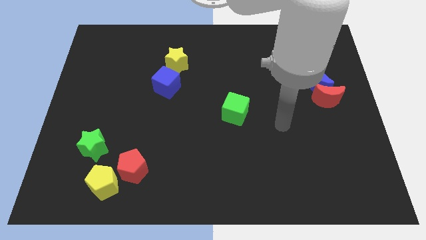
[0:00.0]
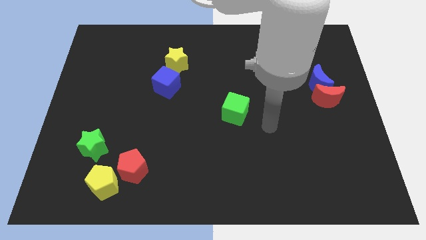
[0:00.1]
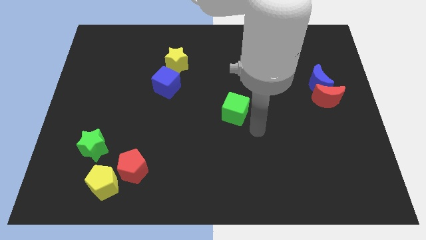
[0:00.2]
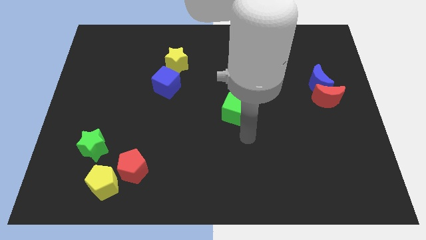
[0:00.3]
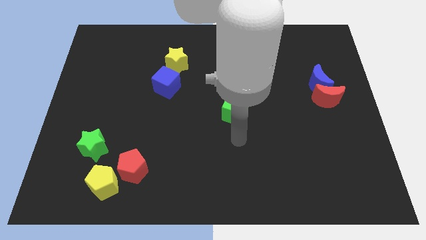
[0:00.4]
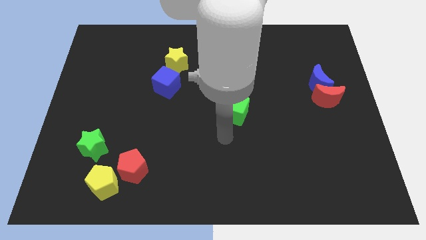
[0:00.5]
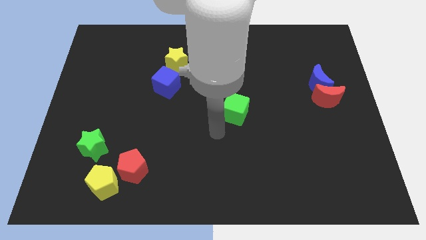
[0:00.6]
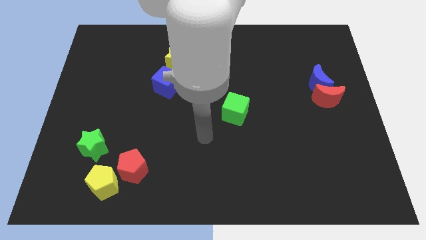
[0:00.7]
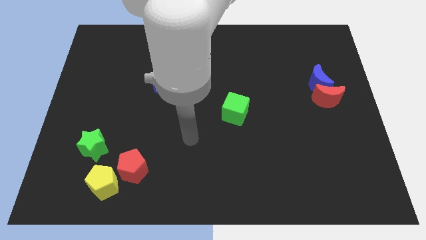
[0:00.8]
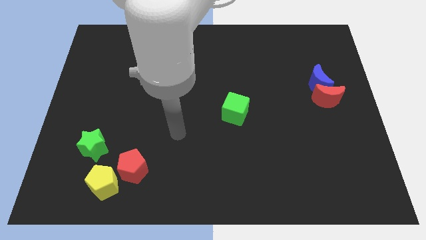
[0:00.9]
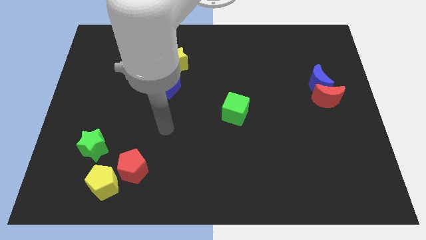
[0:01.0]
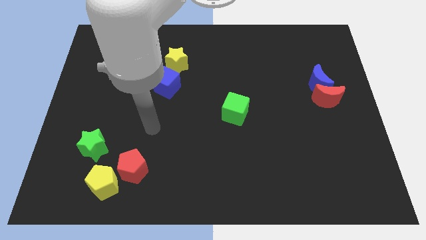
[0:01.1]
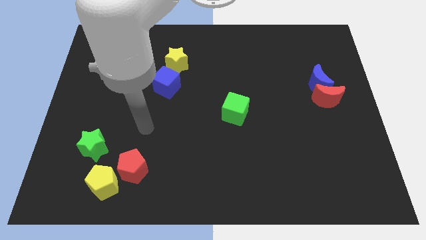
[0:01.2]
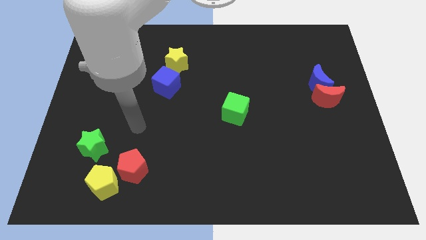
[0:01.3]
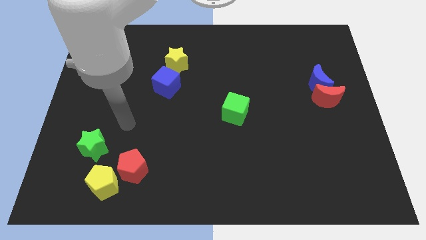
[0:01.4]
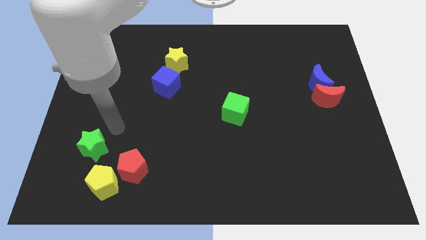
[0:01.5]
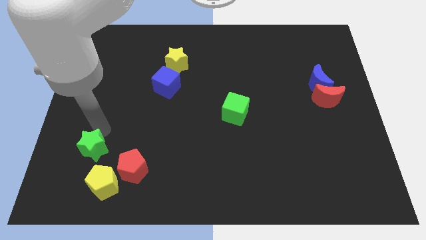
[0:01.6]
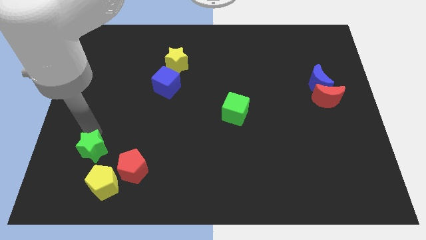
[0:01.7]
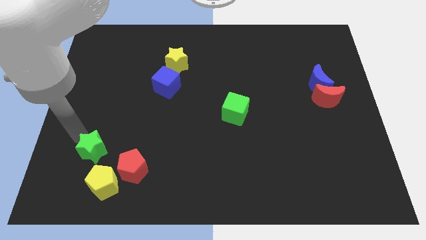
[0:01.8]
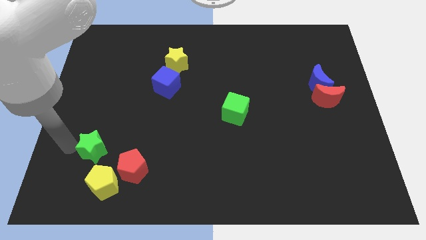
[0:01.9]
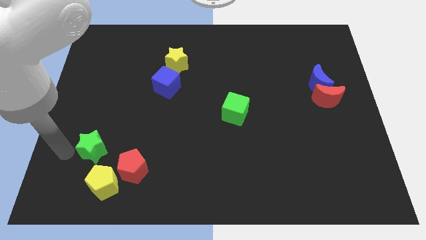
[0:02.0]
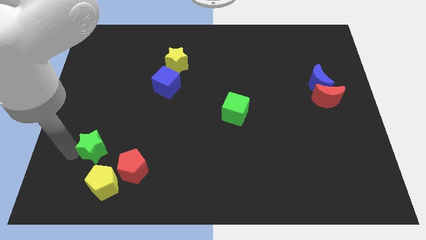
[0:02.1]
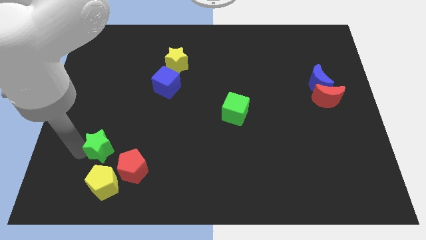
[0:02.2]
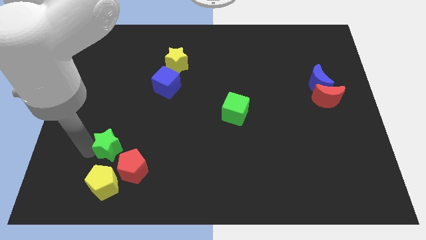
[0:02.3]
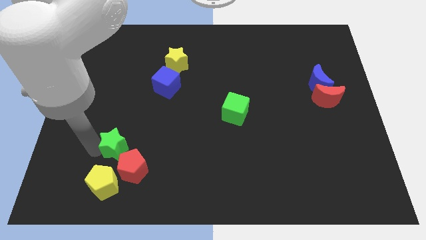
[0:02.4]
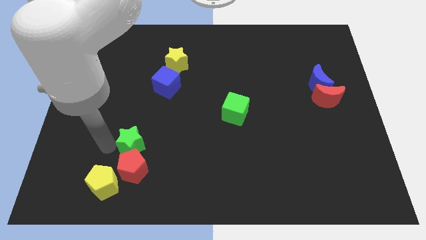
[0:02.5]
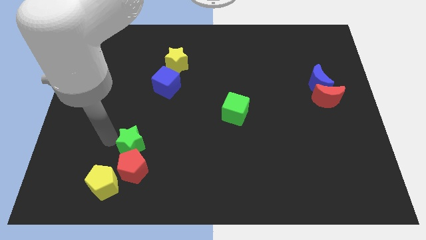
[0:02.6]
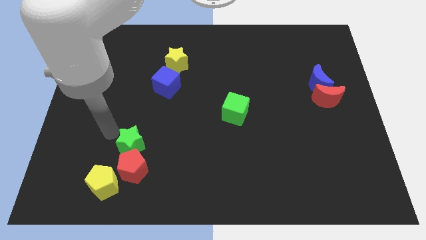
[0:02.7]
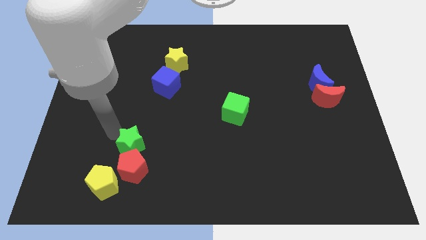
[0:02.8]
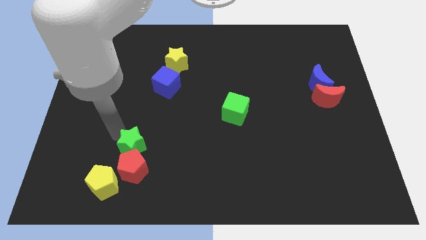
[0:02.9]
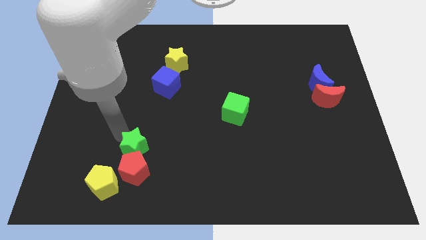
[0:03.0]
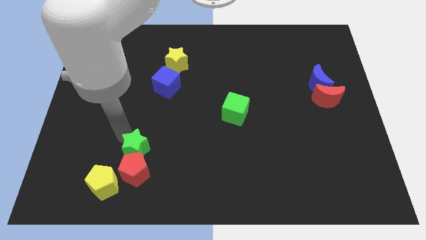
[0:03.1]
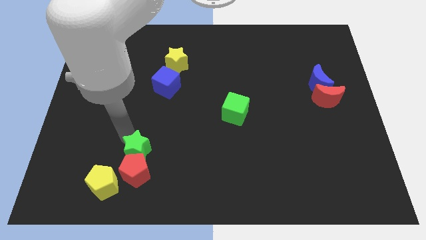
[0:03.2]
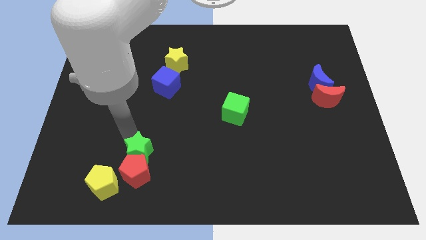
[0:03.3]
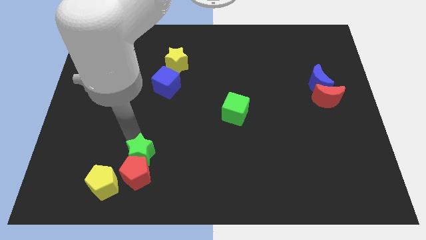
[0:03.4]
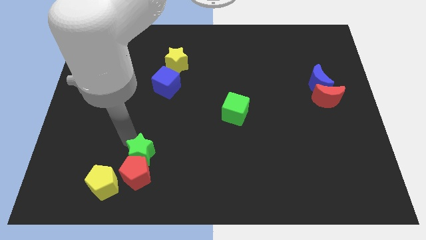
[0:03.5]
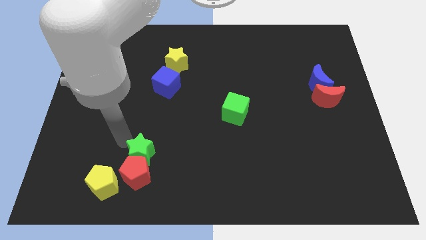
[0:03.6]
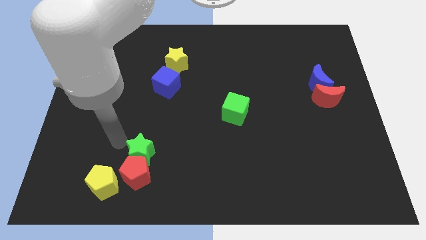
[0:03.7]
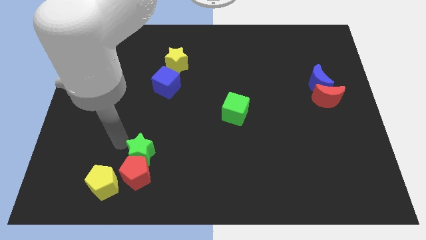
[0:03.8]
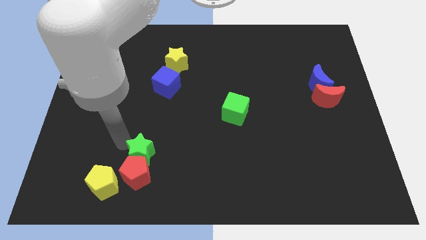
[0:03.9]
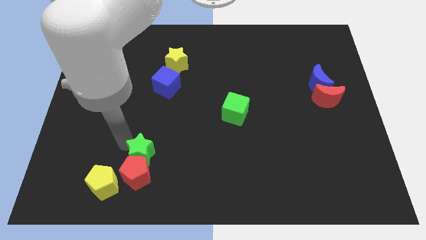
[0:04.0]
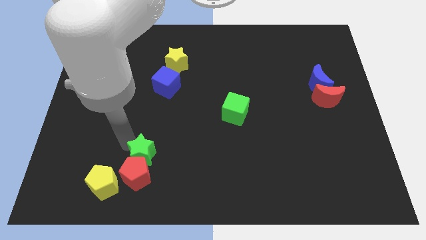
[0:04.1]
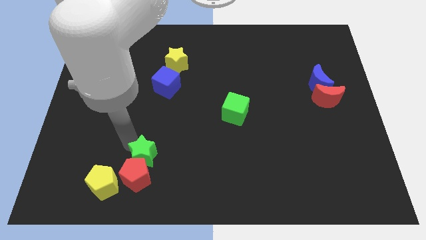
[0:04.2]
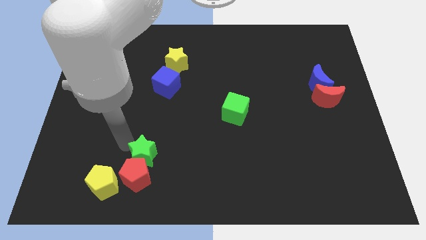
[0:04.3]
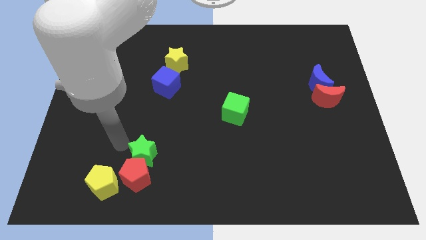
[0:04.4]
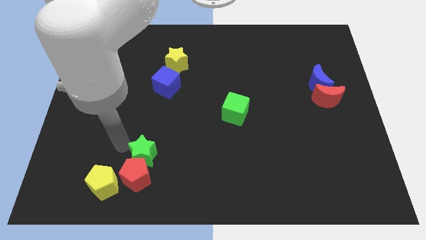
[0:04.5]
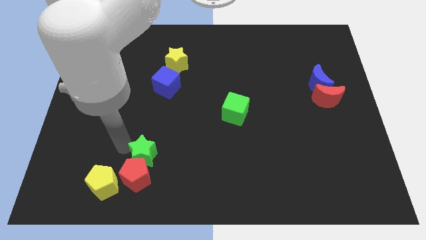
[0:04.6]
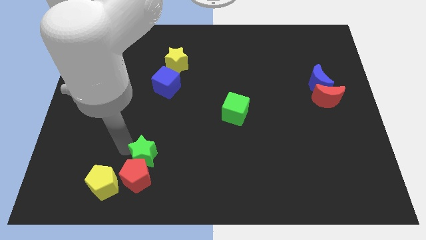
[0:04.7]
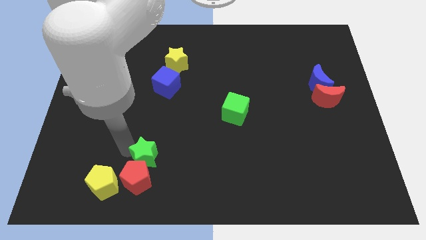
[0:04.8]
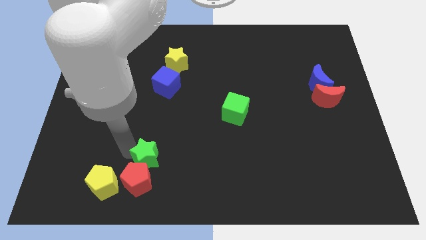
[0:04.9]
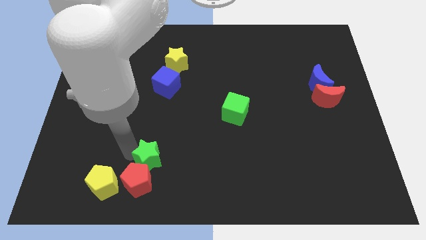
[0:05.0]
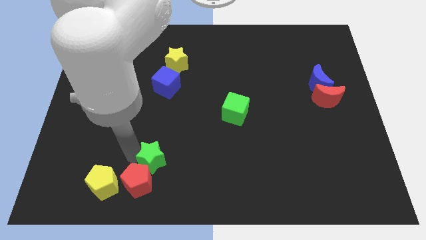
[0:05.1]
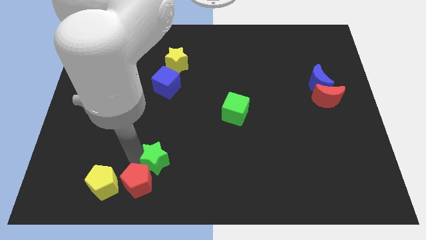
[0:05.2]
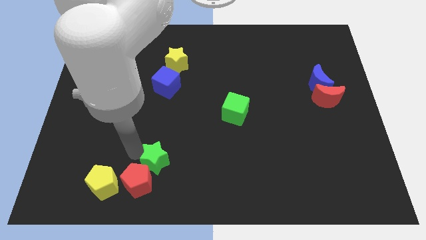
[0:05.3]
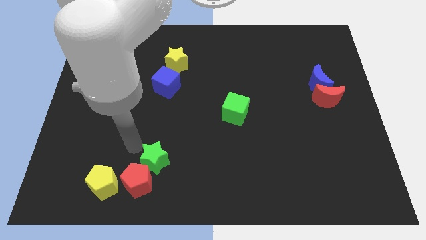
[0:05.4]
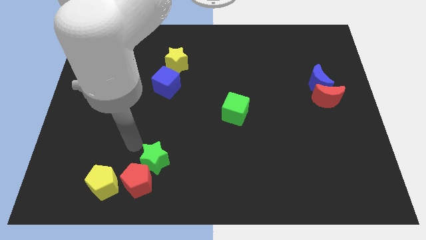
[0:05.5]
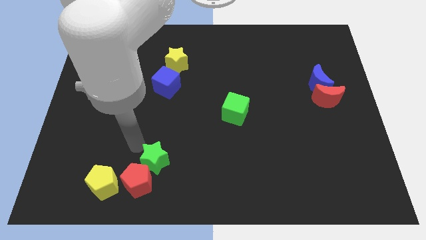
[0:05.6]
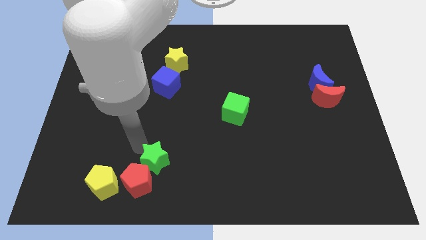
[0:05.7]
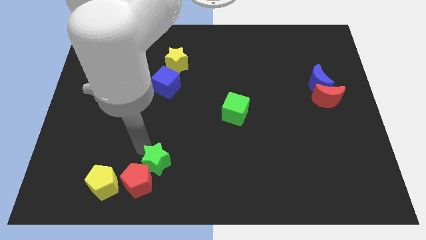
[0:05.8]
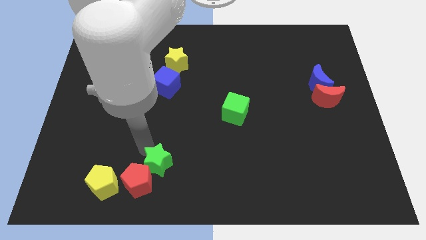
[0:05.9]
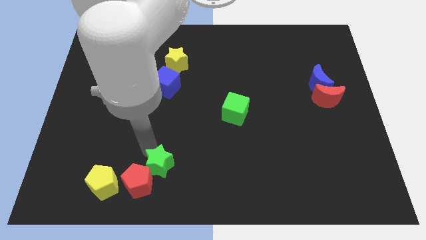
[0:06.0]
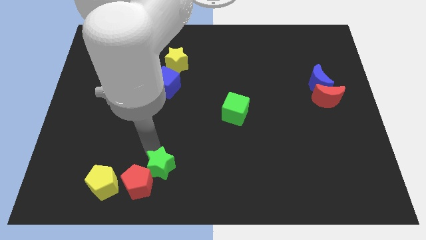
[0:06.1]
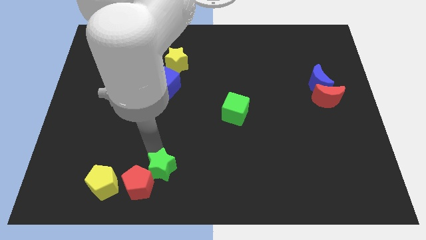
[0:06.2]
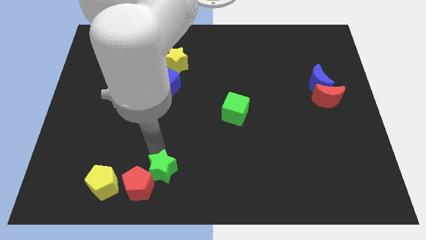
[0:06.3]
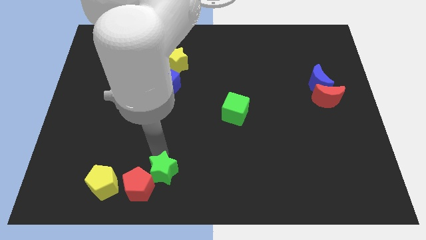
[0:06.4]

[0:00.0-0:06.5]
slide the green star to the bottom side
